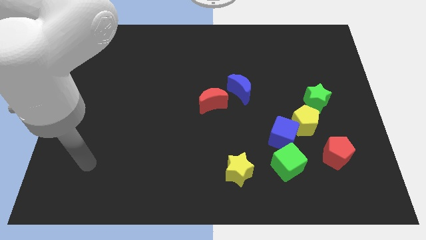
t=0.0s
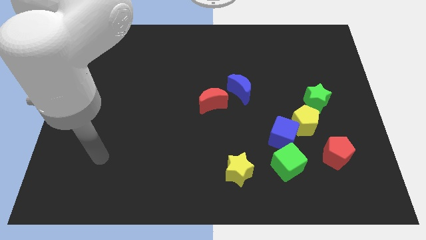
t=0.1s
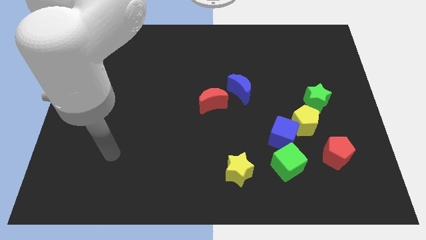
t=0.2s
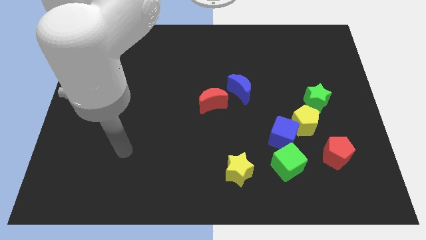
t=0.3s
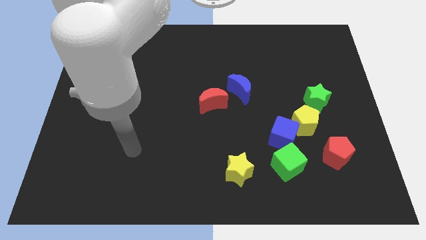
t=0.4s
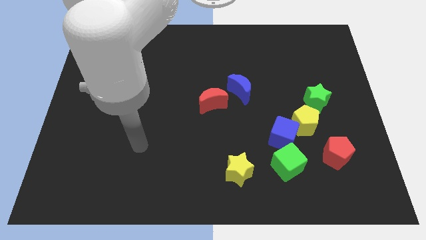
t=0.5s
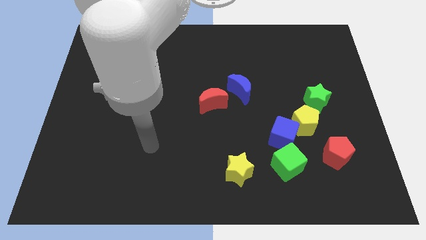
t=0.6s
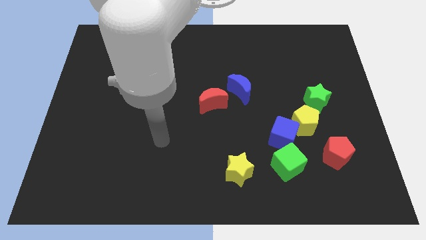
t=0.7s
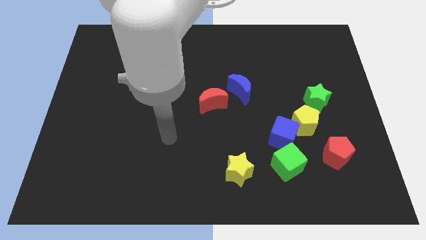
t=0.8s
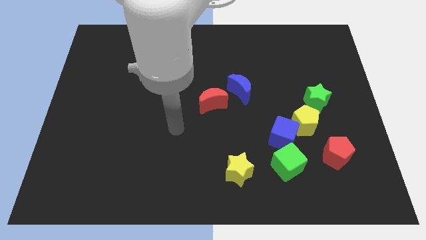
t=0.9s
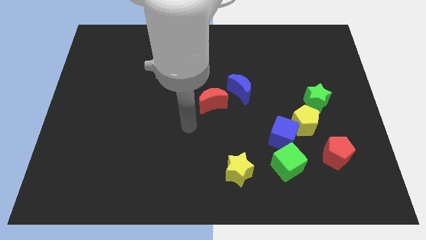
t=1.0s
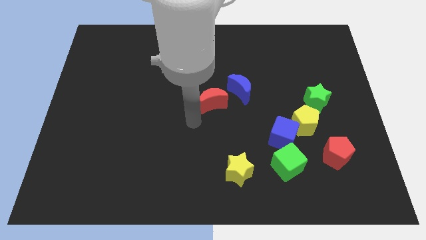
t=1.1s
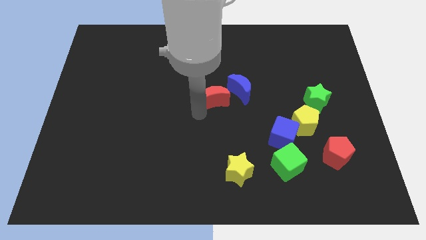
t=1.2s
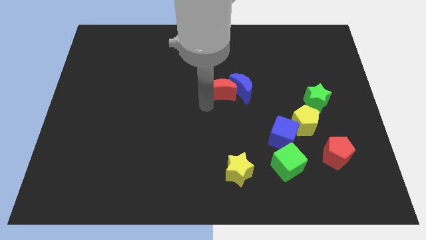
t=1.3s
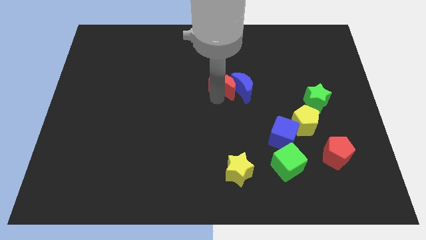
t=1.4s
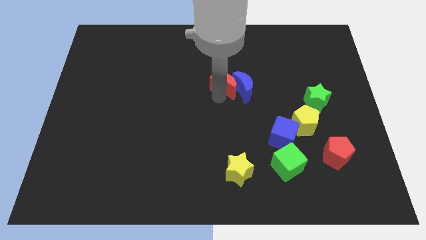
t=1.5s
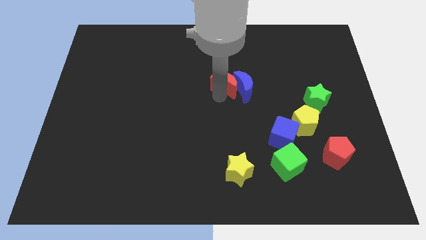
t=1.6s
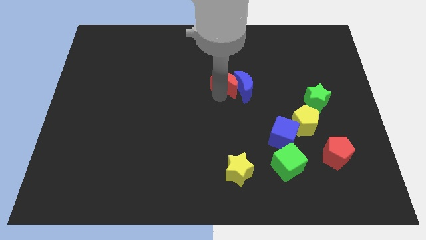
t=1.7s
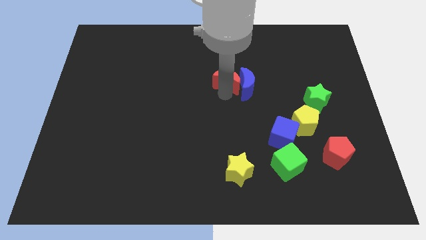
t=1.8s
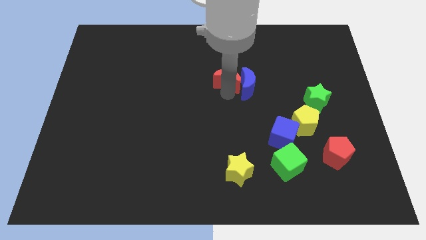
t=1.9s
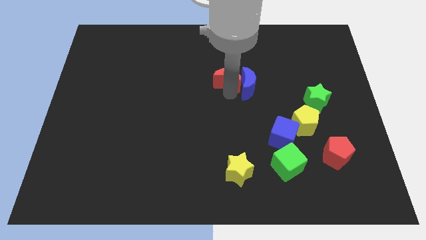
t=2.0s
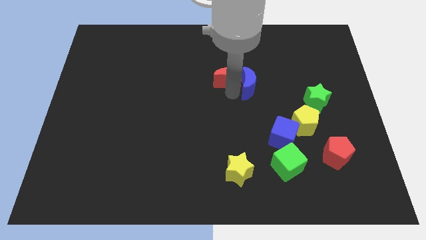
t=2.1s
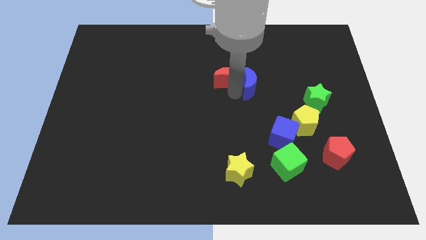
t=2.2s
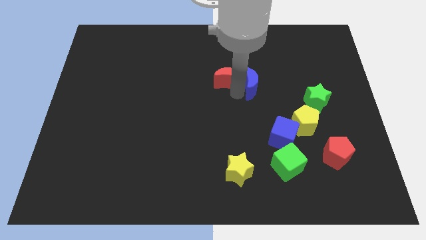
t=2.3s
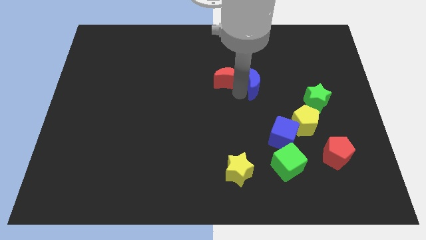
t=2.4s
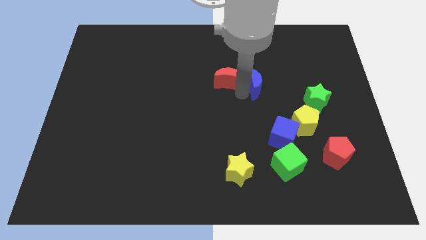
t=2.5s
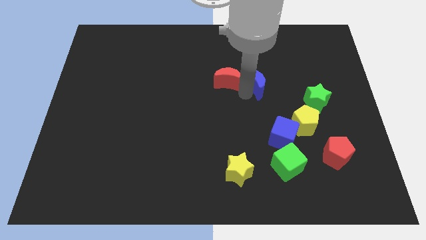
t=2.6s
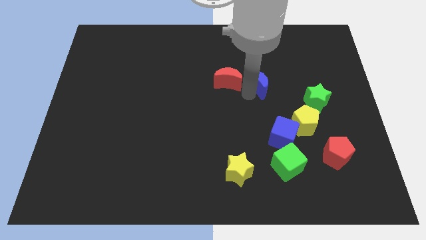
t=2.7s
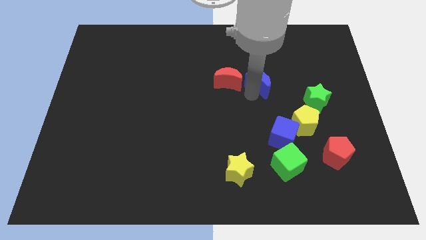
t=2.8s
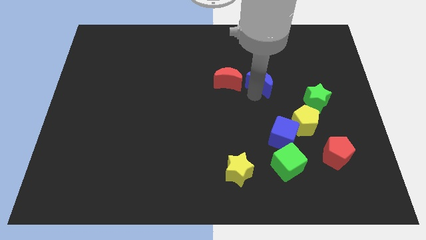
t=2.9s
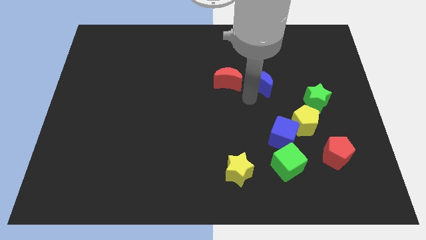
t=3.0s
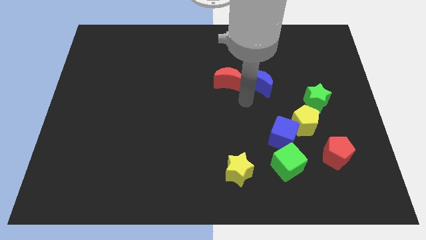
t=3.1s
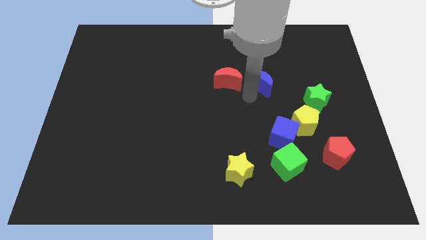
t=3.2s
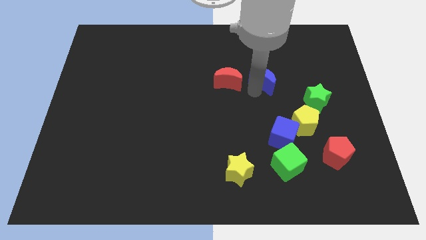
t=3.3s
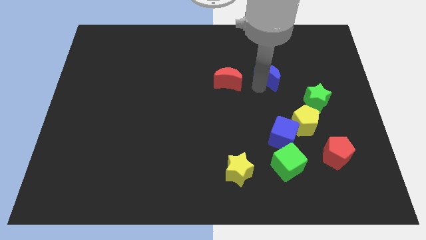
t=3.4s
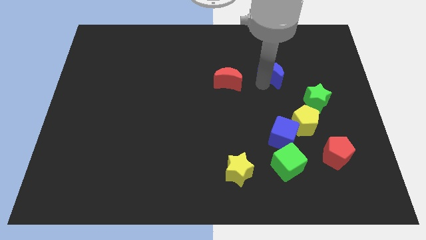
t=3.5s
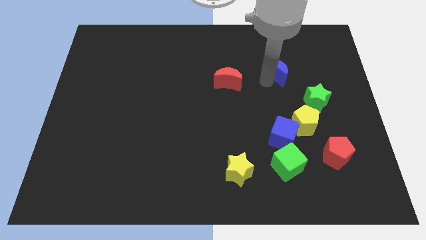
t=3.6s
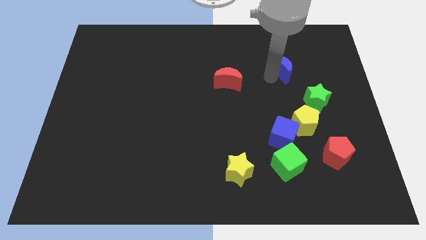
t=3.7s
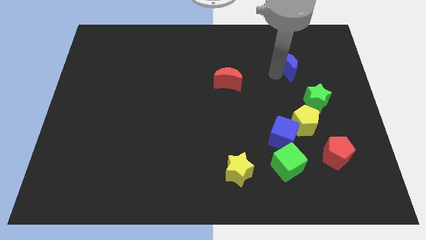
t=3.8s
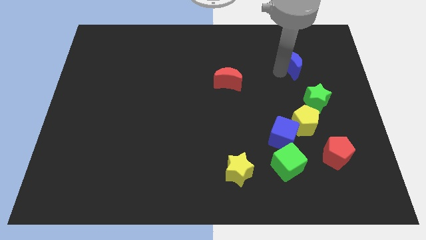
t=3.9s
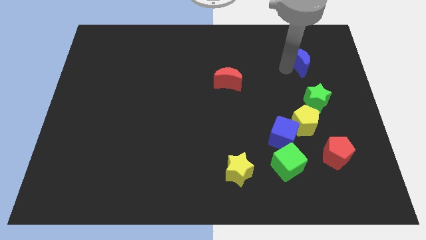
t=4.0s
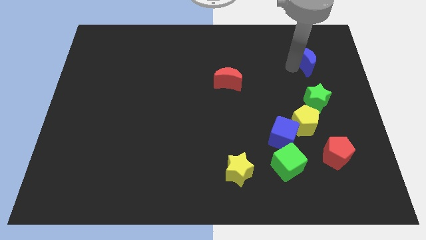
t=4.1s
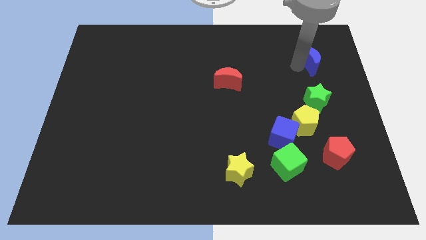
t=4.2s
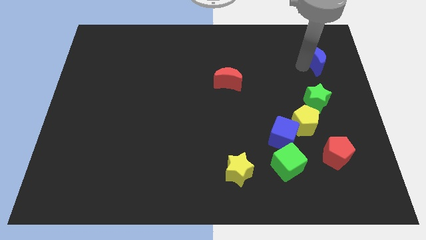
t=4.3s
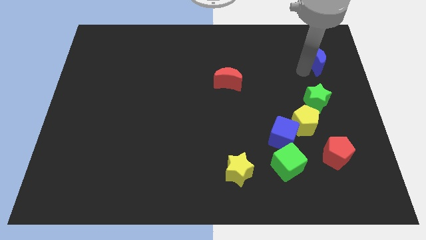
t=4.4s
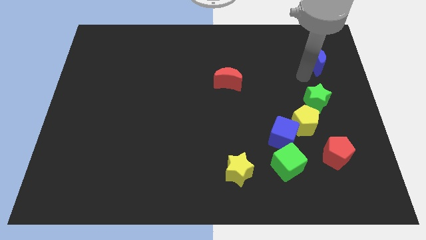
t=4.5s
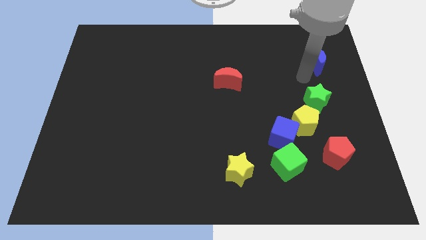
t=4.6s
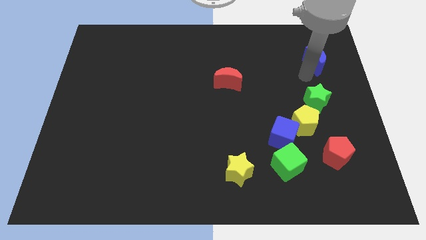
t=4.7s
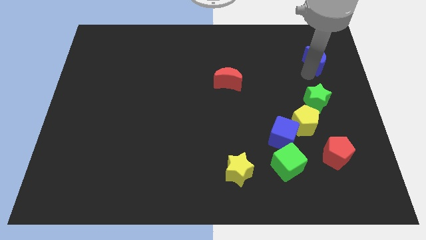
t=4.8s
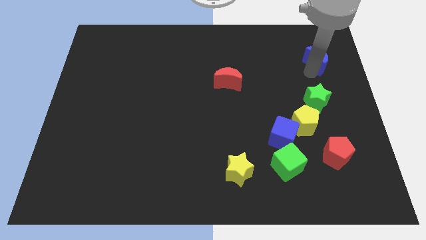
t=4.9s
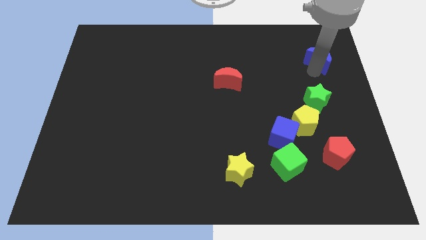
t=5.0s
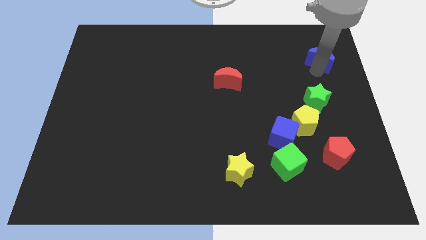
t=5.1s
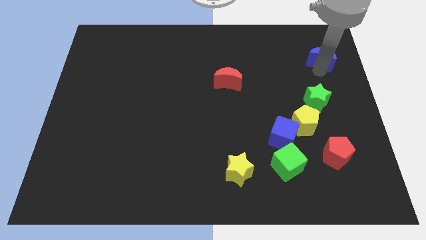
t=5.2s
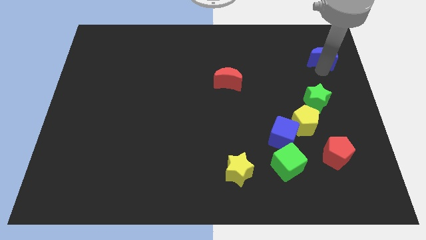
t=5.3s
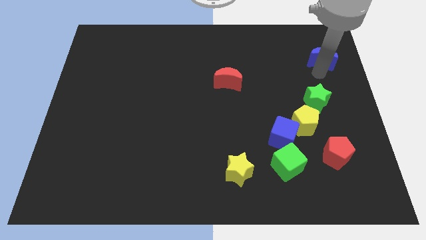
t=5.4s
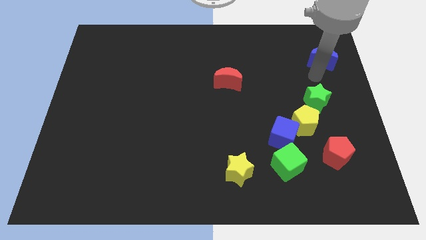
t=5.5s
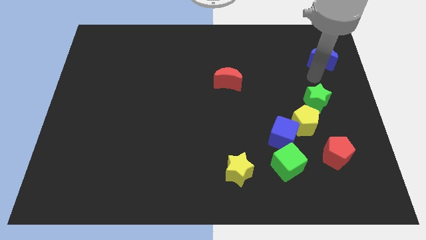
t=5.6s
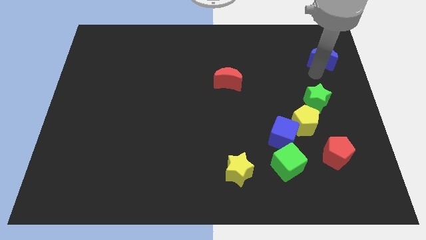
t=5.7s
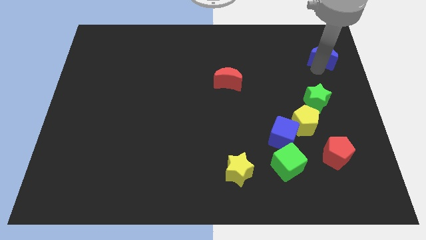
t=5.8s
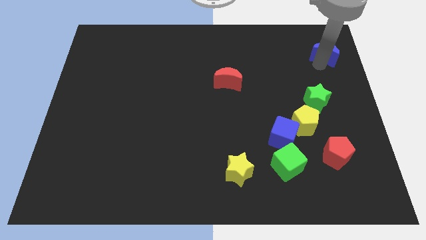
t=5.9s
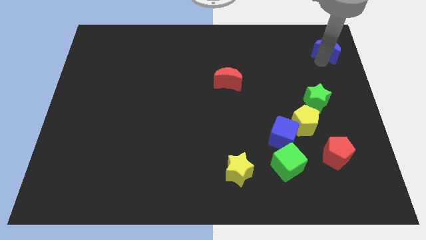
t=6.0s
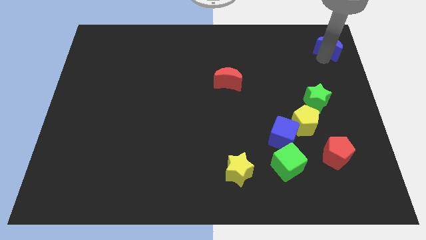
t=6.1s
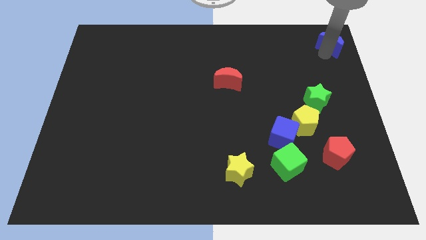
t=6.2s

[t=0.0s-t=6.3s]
move the blue moon to the top right

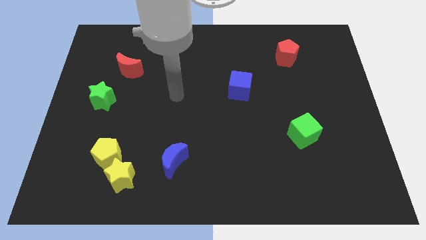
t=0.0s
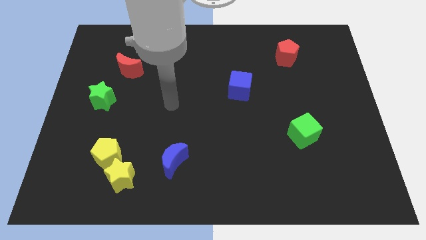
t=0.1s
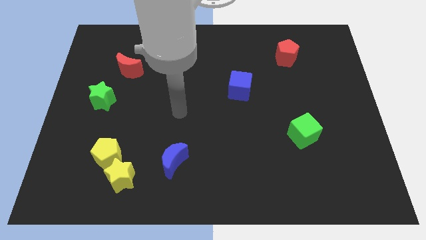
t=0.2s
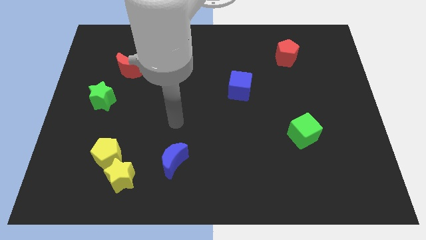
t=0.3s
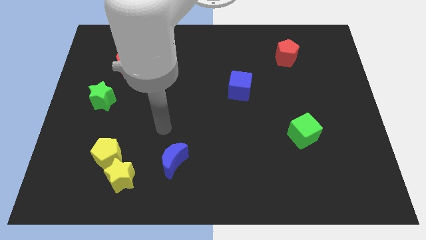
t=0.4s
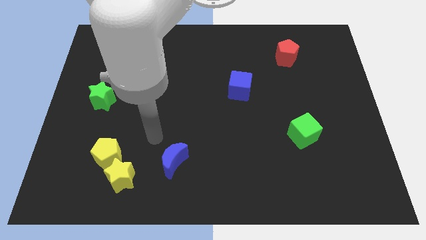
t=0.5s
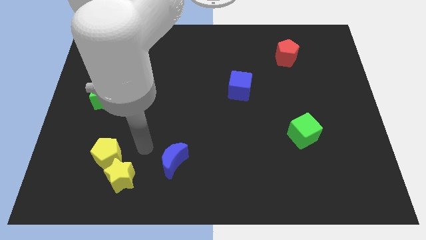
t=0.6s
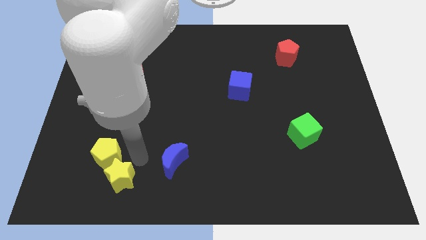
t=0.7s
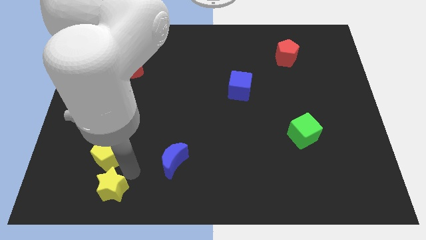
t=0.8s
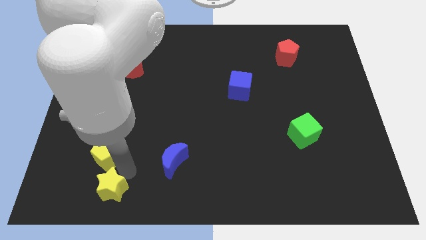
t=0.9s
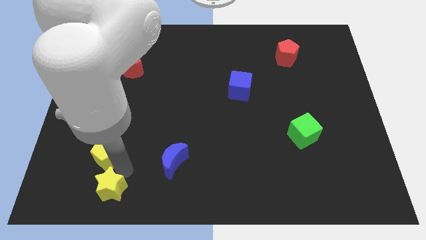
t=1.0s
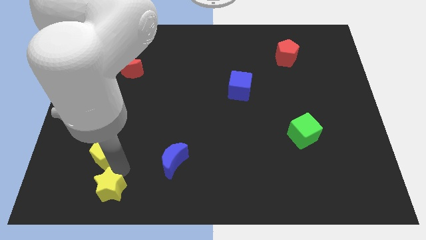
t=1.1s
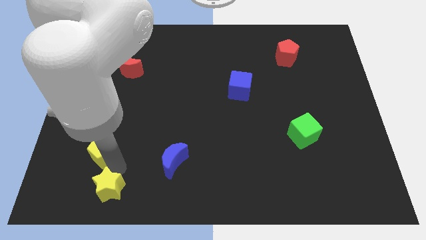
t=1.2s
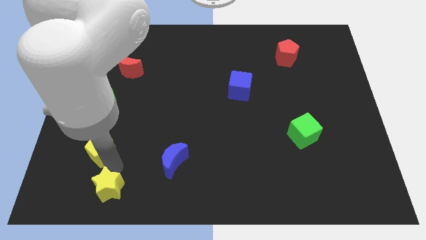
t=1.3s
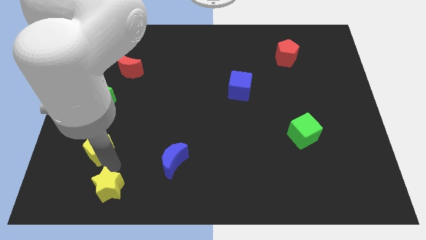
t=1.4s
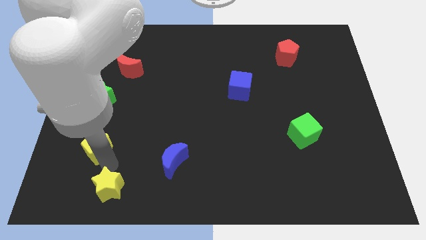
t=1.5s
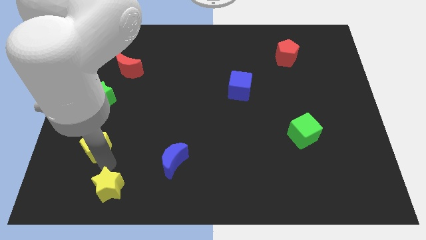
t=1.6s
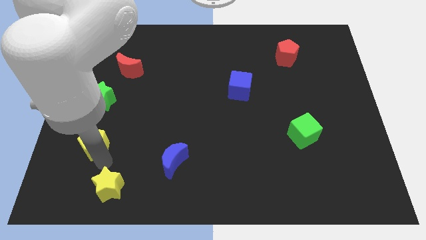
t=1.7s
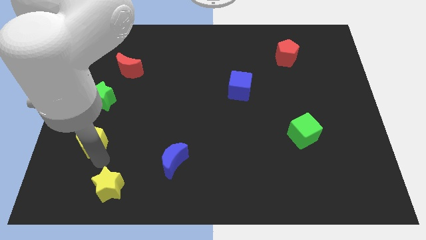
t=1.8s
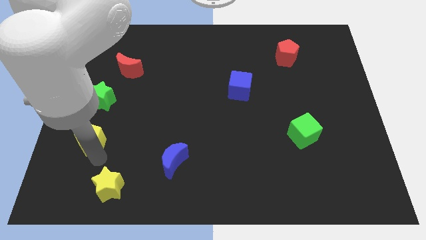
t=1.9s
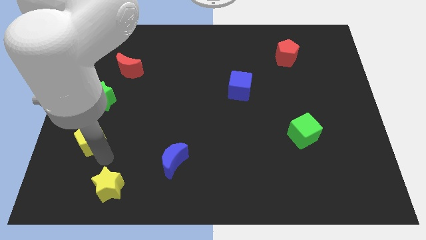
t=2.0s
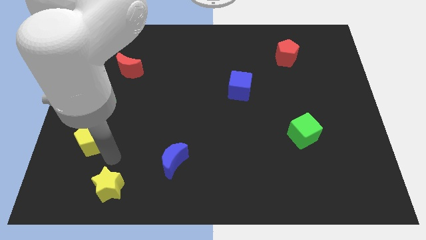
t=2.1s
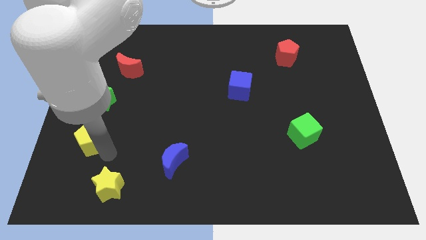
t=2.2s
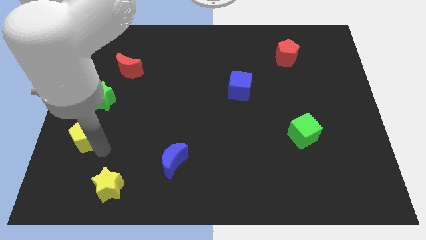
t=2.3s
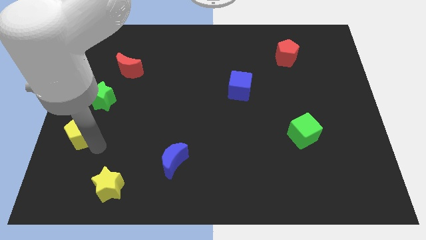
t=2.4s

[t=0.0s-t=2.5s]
slide the yellow pentagon to the left side of the board
